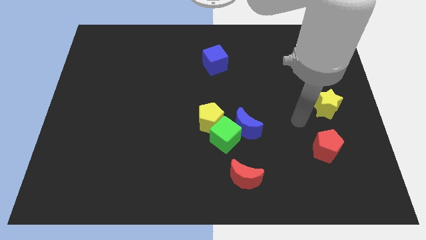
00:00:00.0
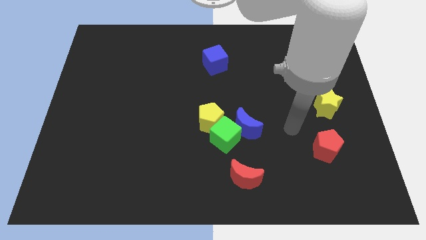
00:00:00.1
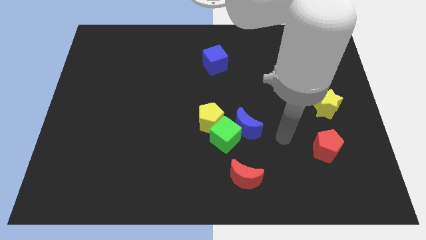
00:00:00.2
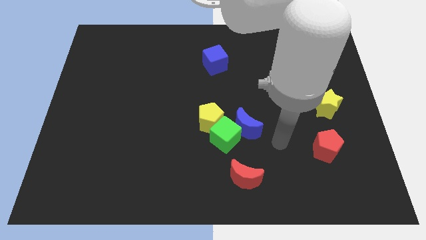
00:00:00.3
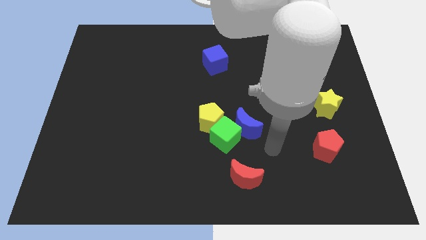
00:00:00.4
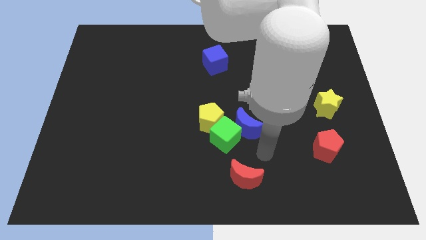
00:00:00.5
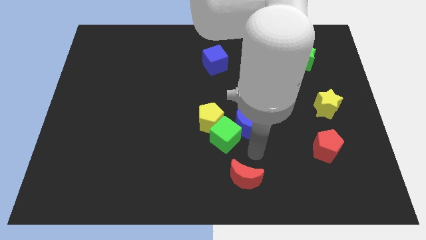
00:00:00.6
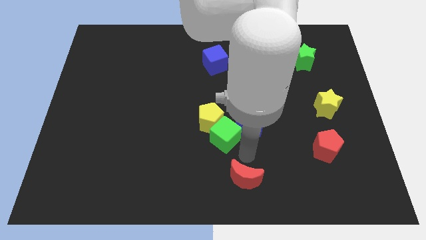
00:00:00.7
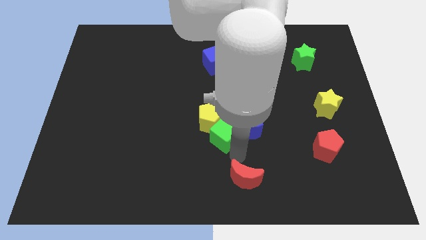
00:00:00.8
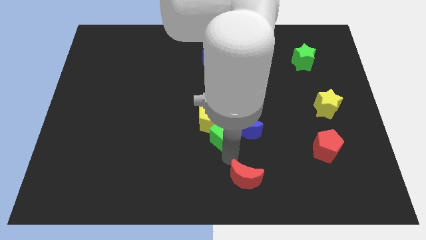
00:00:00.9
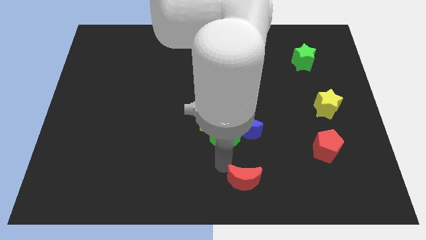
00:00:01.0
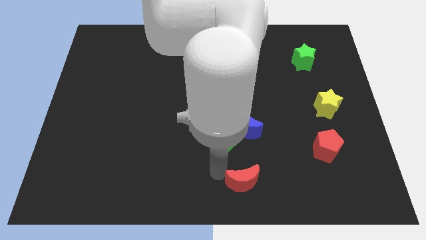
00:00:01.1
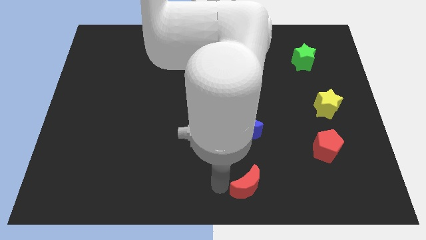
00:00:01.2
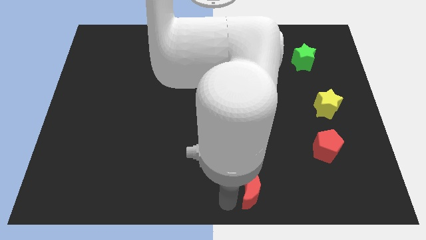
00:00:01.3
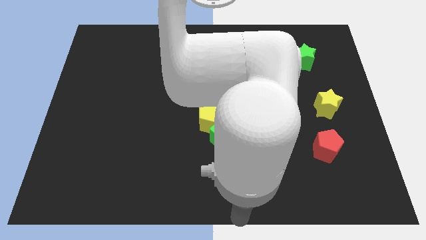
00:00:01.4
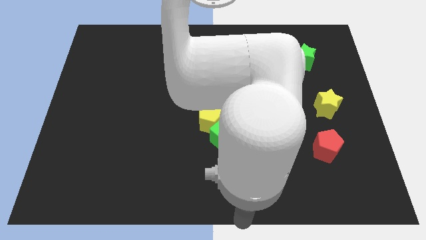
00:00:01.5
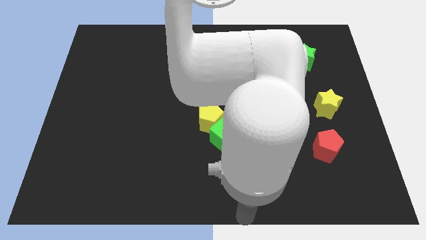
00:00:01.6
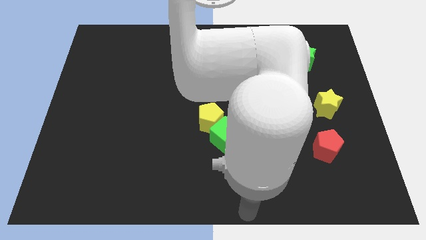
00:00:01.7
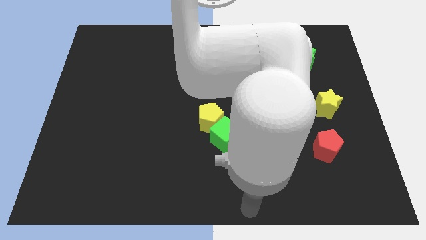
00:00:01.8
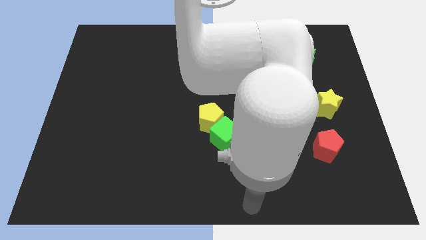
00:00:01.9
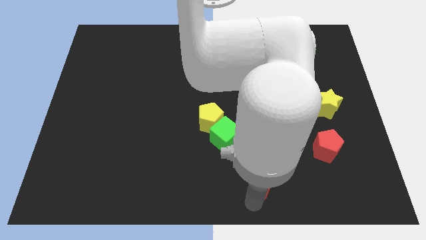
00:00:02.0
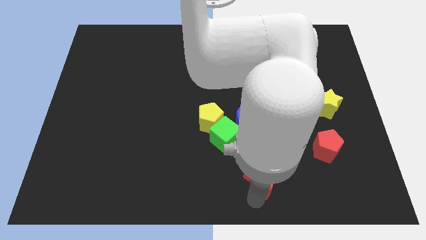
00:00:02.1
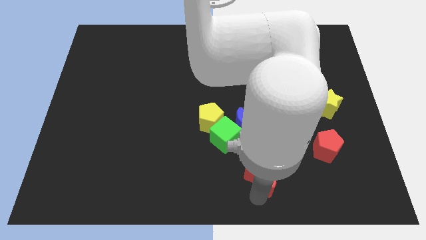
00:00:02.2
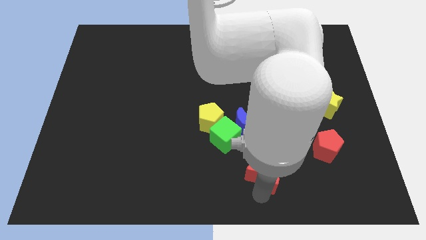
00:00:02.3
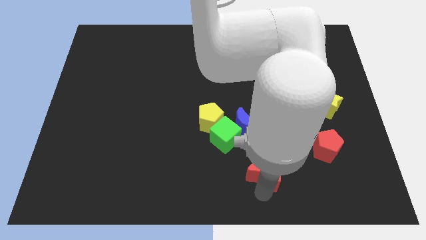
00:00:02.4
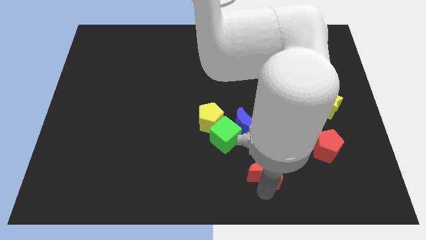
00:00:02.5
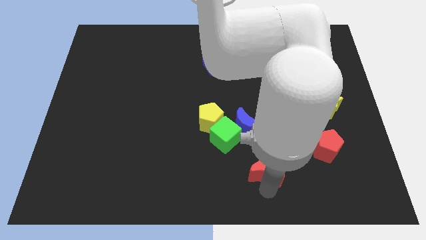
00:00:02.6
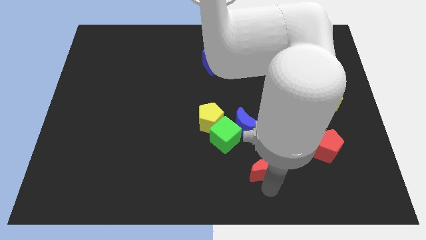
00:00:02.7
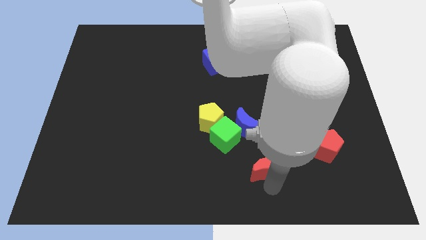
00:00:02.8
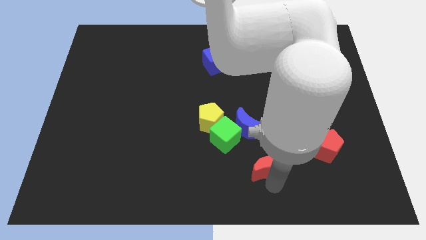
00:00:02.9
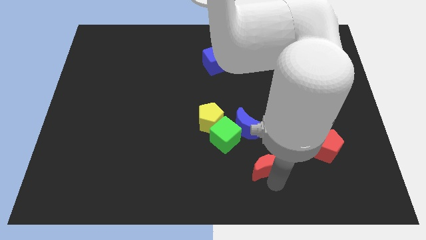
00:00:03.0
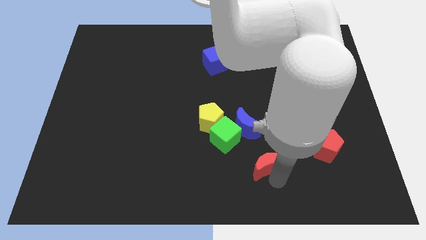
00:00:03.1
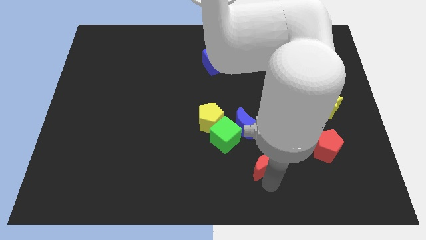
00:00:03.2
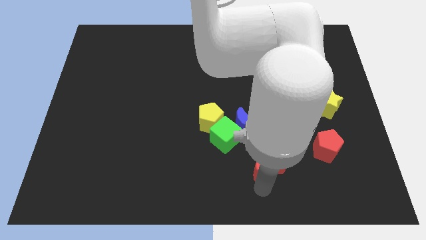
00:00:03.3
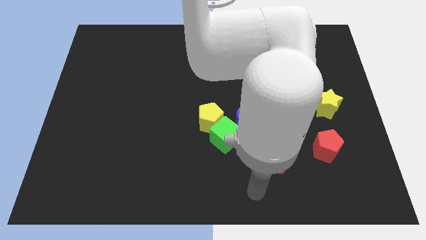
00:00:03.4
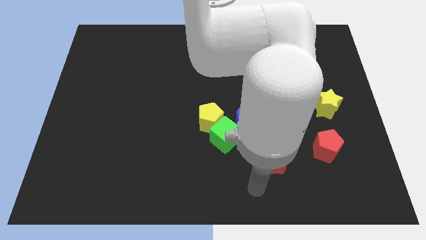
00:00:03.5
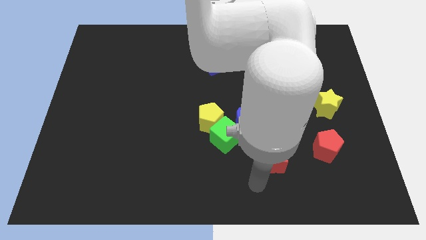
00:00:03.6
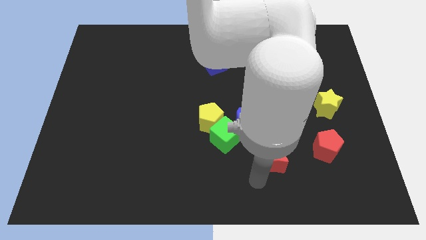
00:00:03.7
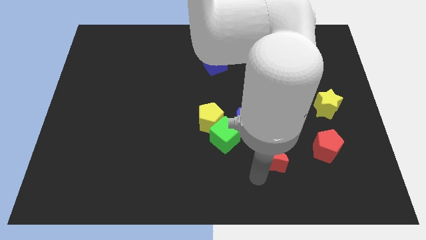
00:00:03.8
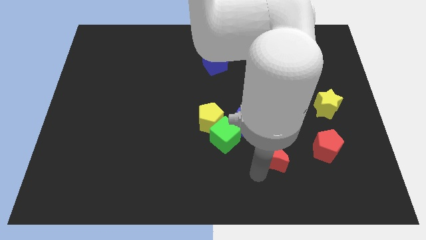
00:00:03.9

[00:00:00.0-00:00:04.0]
slide the red moon a little bit upwards and to the right diagonally

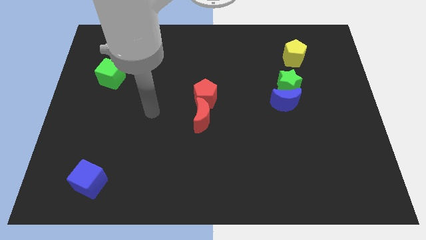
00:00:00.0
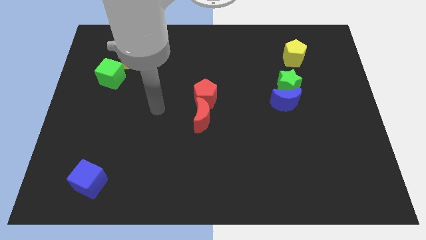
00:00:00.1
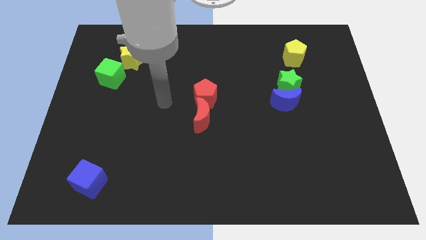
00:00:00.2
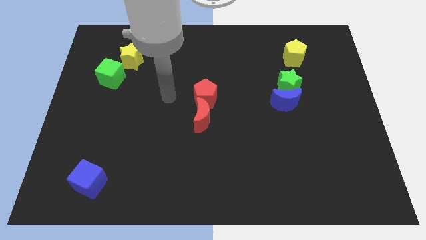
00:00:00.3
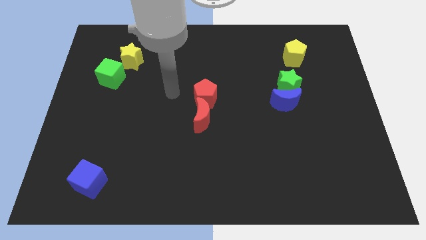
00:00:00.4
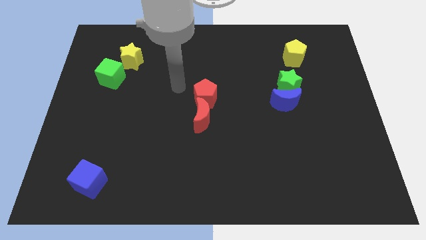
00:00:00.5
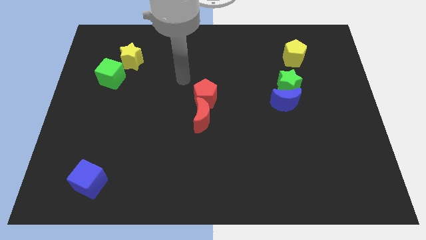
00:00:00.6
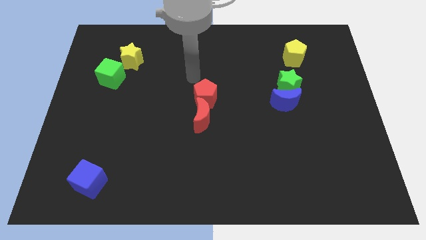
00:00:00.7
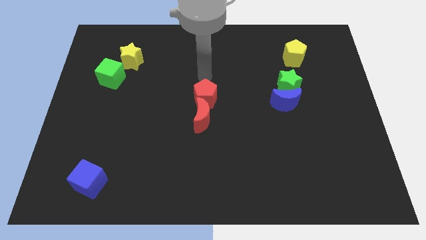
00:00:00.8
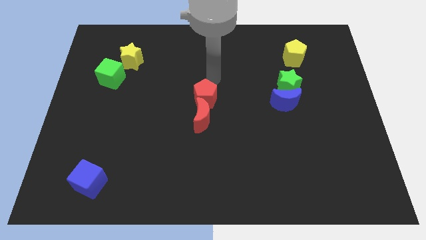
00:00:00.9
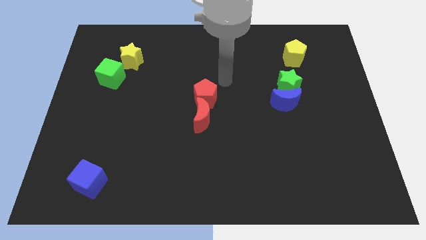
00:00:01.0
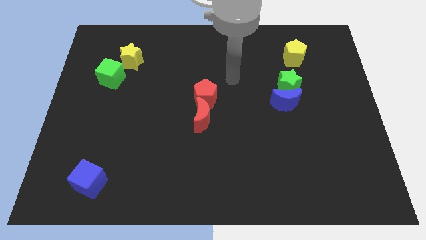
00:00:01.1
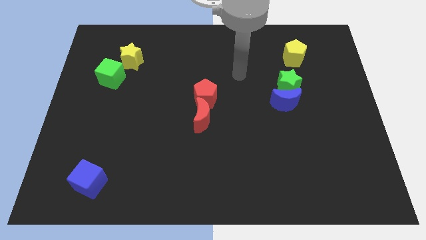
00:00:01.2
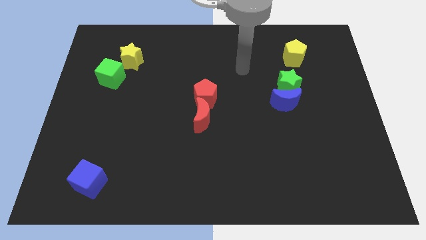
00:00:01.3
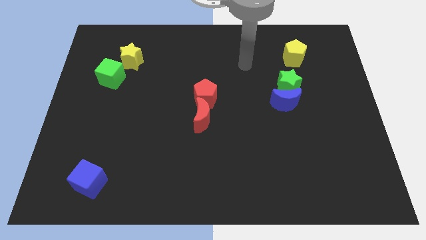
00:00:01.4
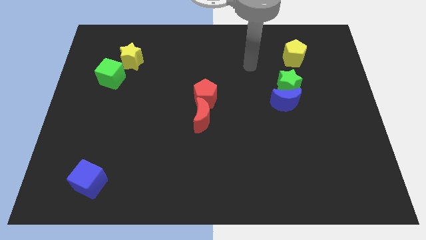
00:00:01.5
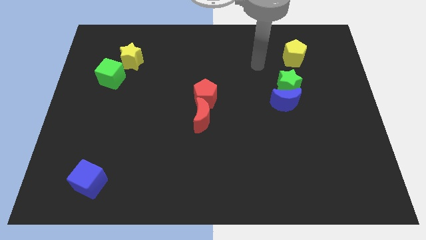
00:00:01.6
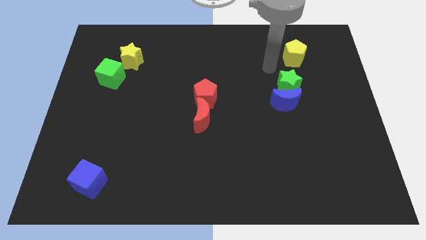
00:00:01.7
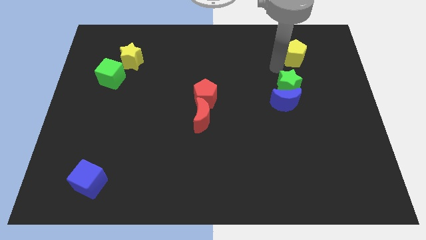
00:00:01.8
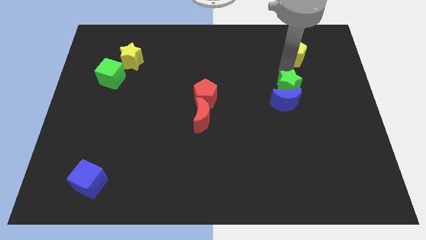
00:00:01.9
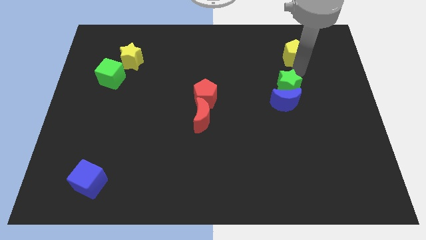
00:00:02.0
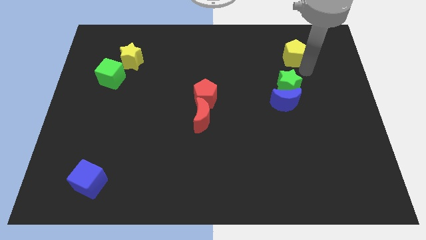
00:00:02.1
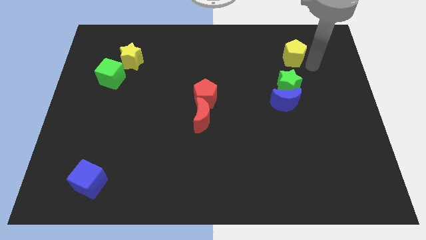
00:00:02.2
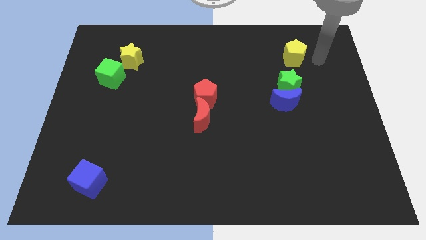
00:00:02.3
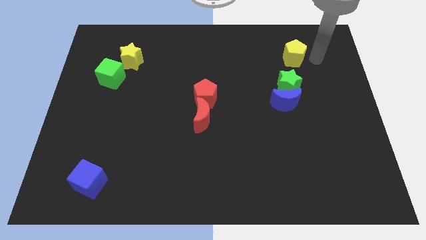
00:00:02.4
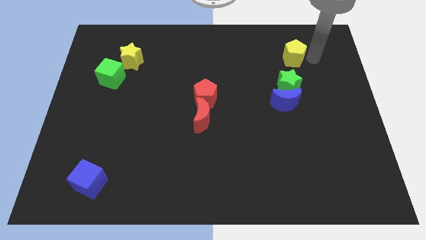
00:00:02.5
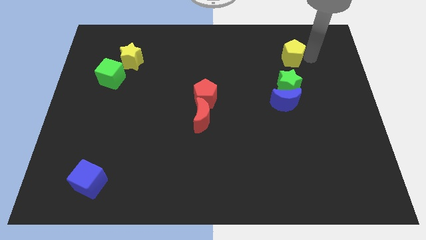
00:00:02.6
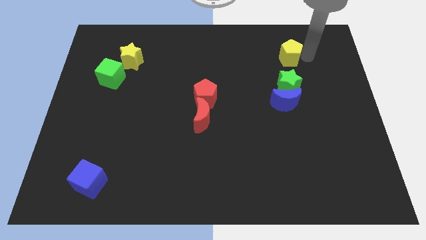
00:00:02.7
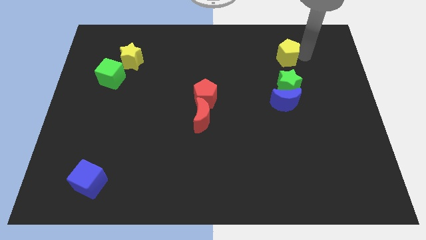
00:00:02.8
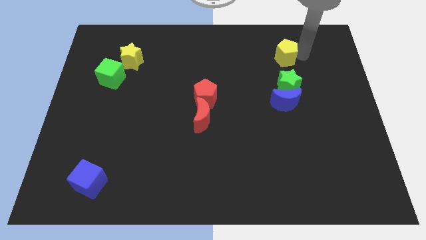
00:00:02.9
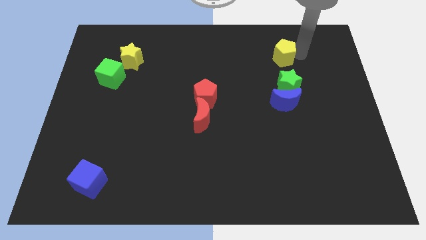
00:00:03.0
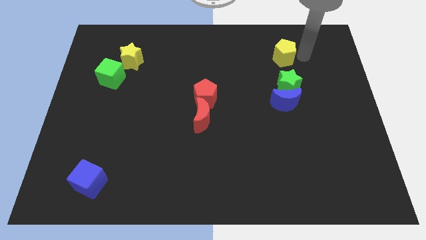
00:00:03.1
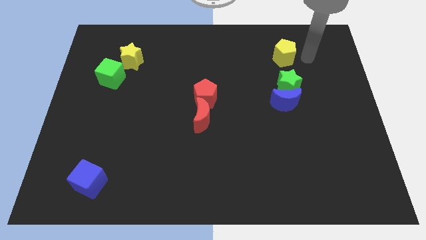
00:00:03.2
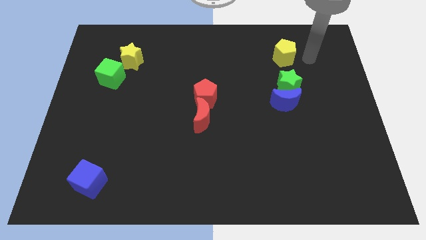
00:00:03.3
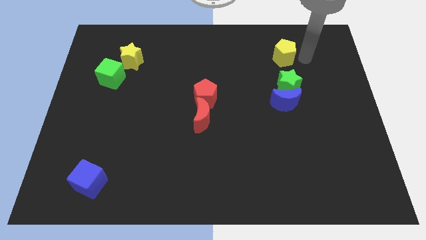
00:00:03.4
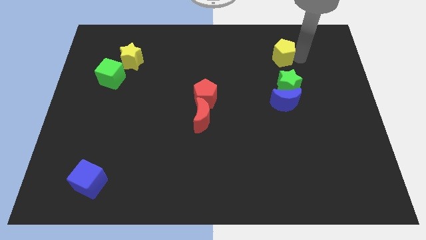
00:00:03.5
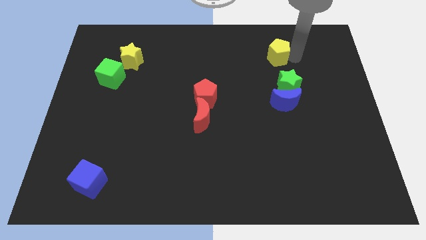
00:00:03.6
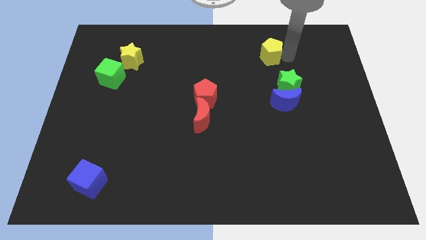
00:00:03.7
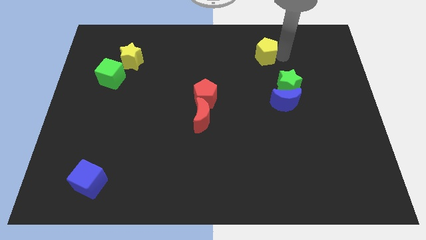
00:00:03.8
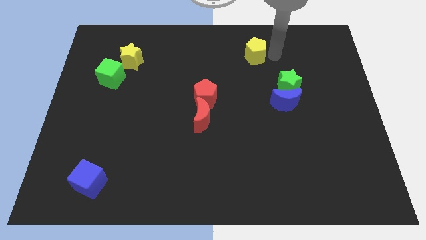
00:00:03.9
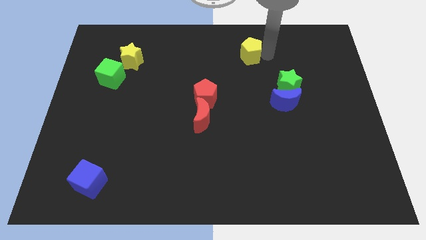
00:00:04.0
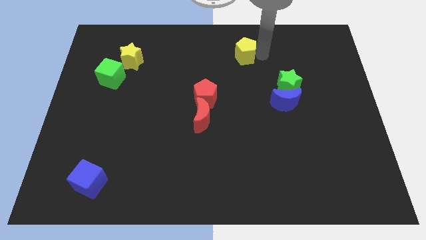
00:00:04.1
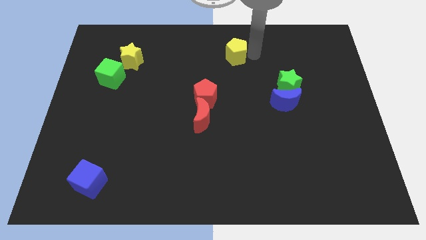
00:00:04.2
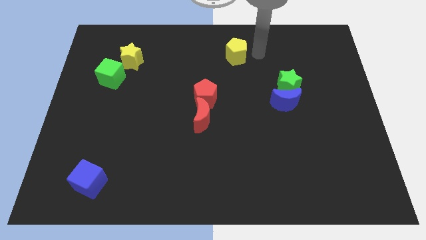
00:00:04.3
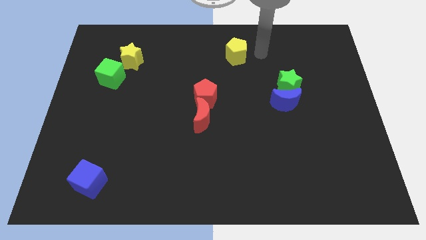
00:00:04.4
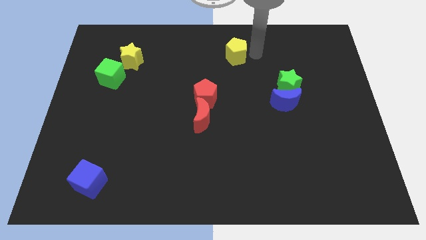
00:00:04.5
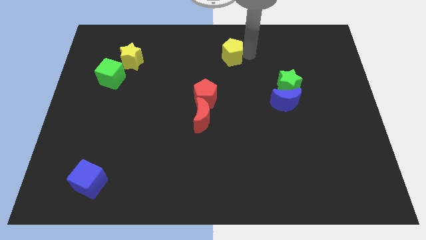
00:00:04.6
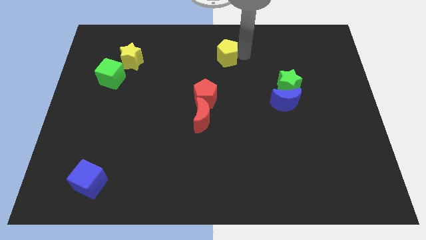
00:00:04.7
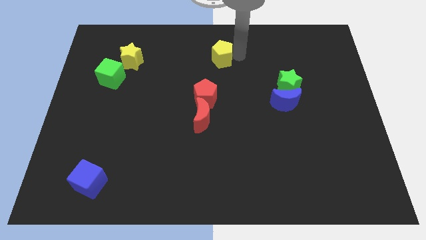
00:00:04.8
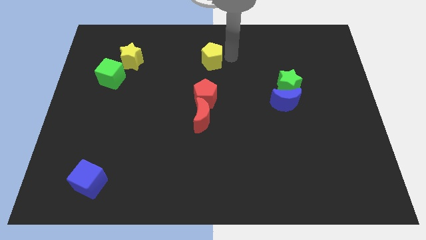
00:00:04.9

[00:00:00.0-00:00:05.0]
move the yellow pentagon to the left
